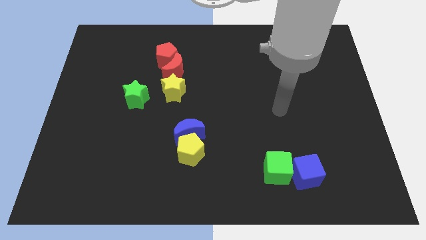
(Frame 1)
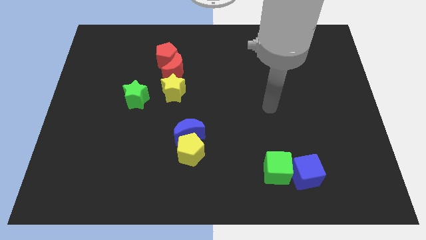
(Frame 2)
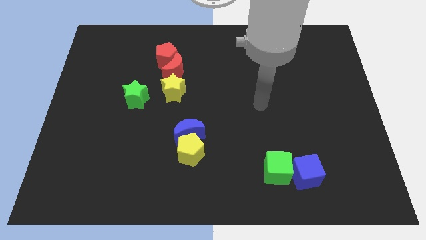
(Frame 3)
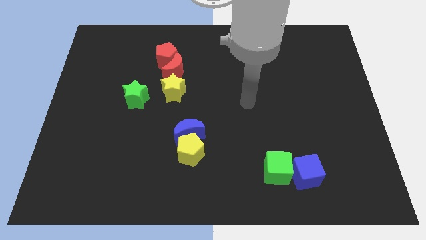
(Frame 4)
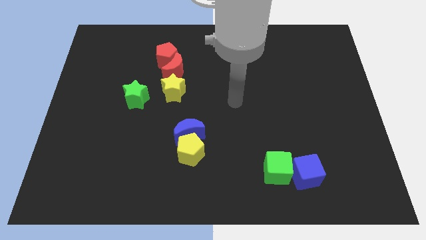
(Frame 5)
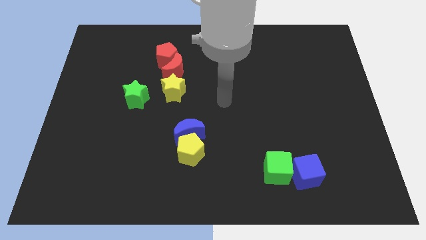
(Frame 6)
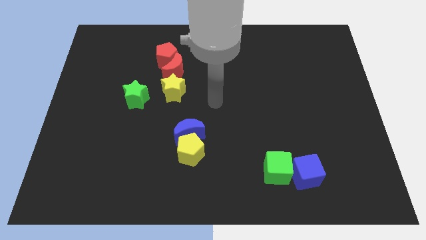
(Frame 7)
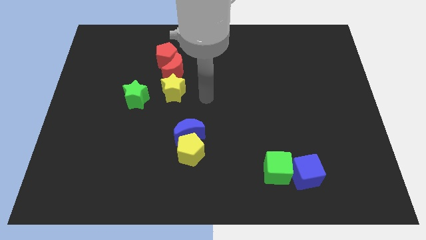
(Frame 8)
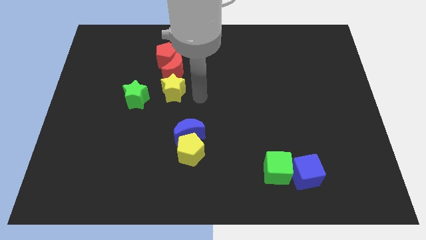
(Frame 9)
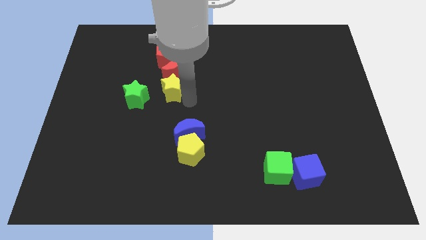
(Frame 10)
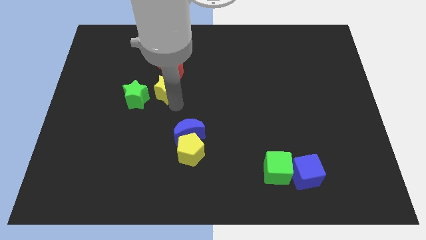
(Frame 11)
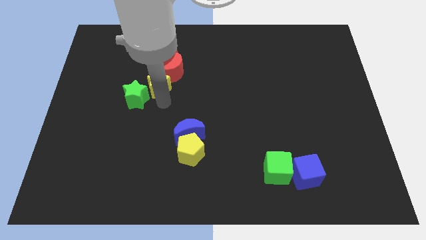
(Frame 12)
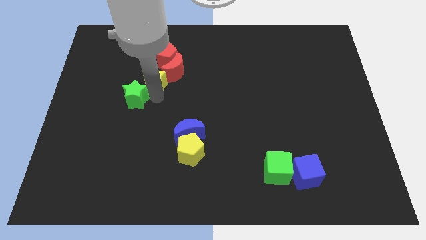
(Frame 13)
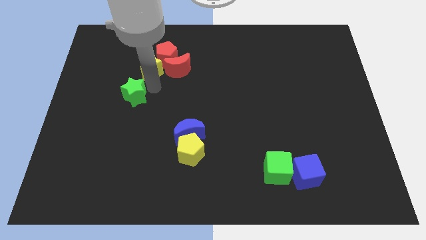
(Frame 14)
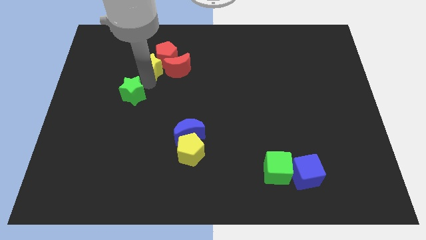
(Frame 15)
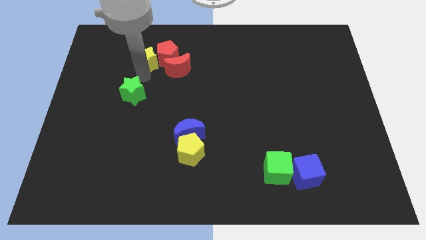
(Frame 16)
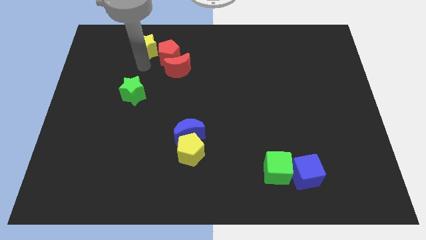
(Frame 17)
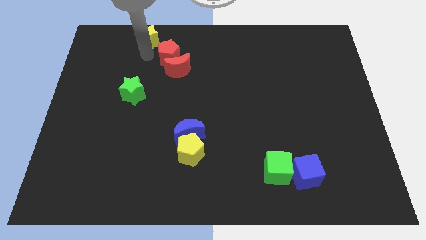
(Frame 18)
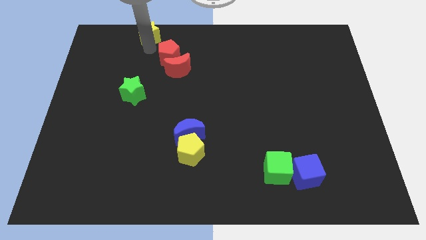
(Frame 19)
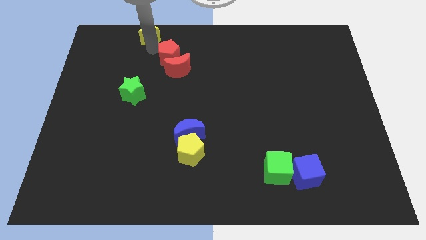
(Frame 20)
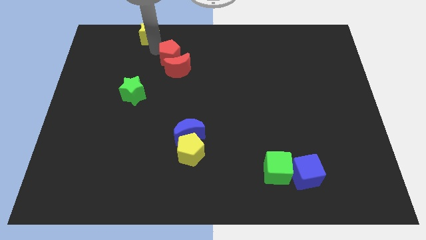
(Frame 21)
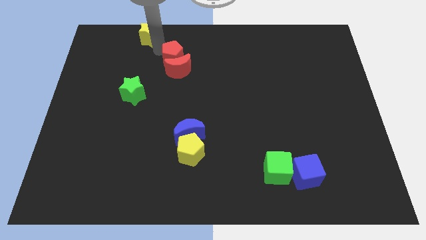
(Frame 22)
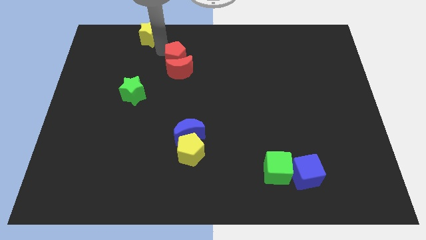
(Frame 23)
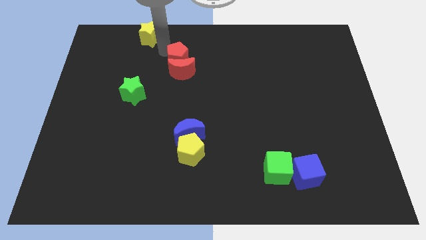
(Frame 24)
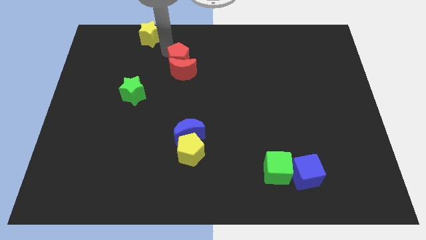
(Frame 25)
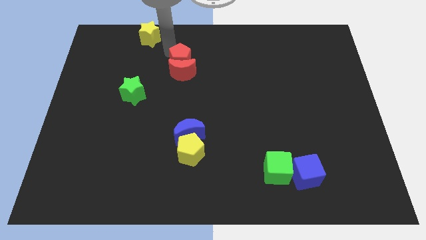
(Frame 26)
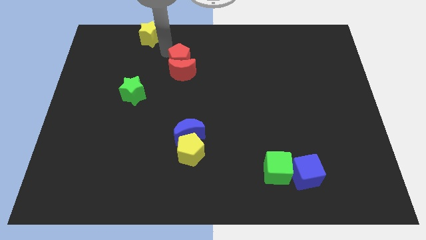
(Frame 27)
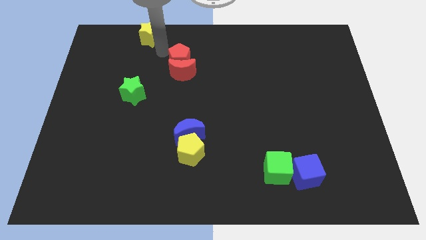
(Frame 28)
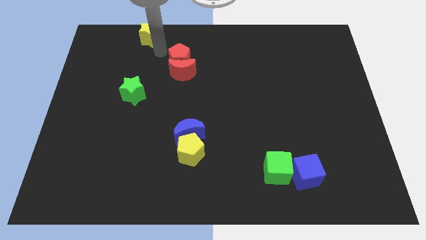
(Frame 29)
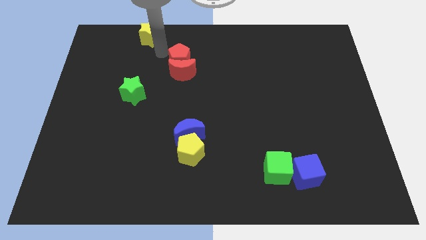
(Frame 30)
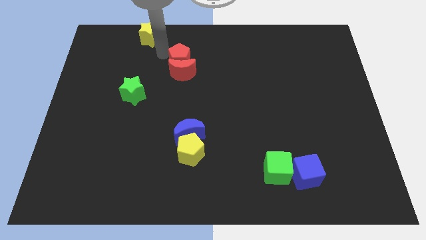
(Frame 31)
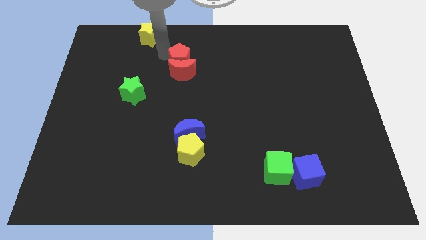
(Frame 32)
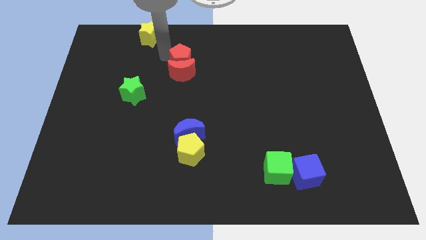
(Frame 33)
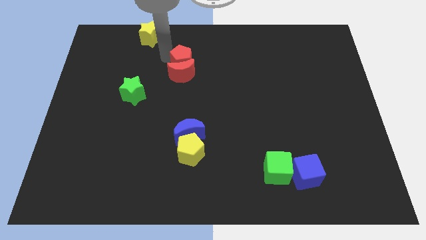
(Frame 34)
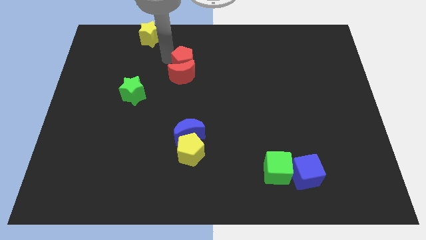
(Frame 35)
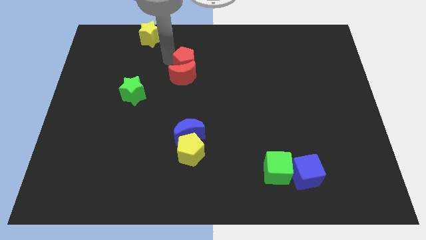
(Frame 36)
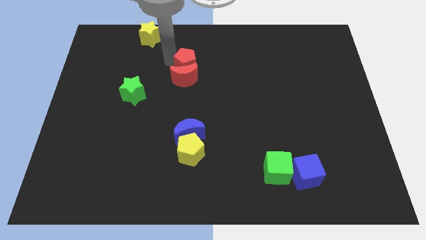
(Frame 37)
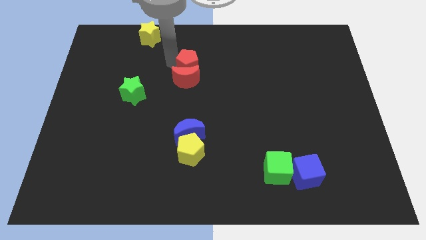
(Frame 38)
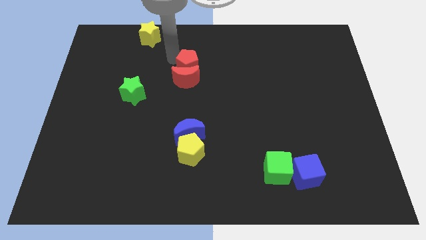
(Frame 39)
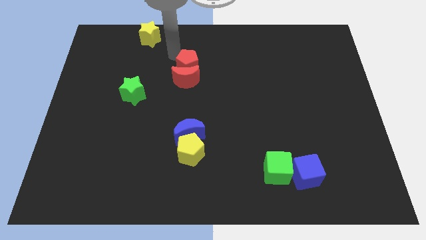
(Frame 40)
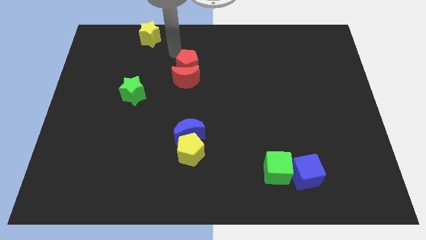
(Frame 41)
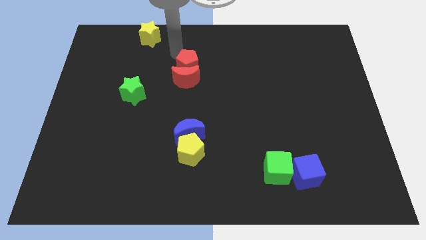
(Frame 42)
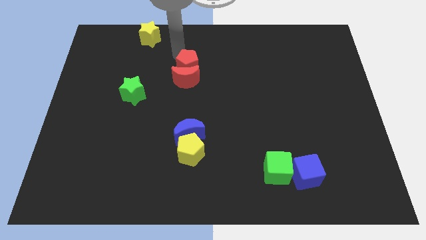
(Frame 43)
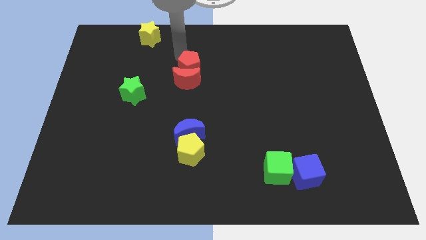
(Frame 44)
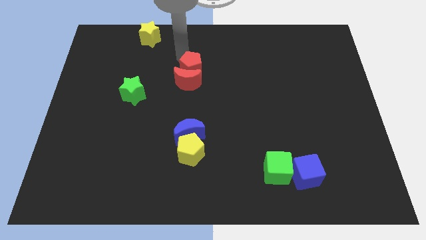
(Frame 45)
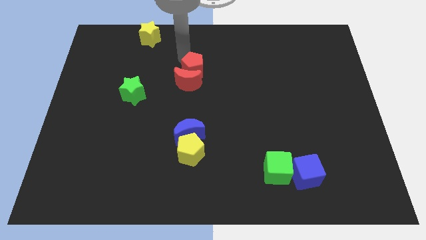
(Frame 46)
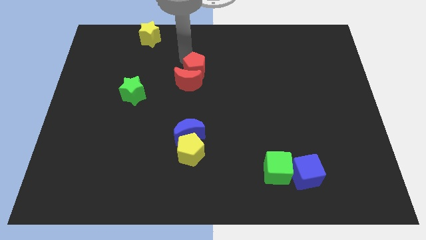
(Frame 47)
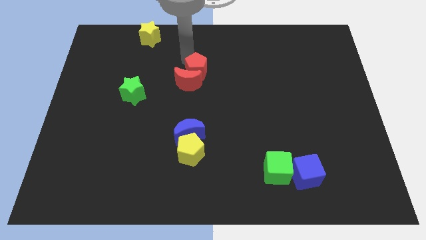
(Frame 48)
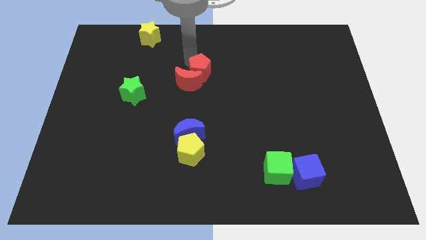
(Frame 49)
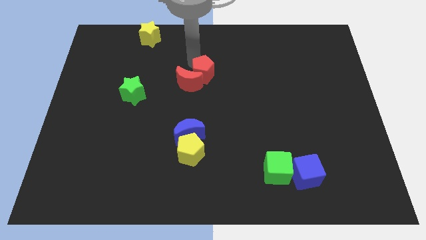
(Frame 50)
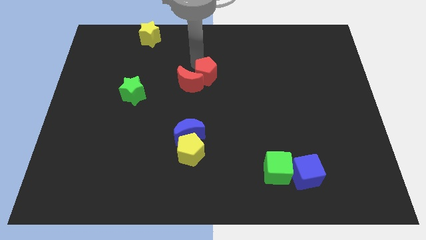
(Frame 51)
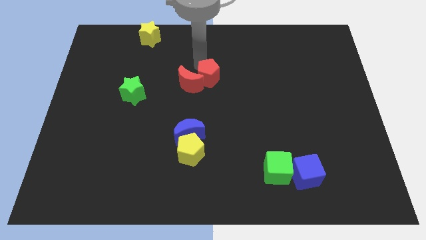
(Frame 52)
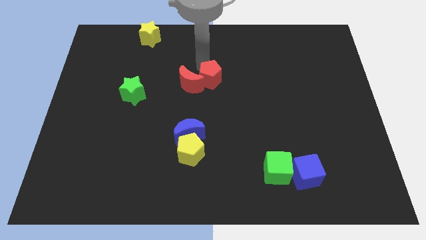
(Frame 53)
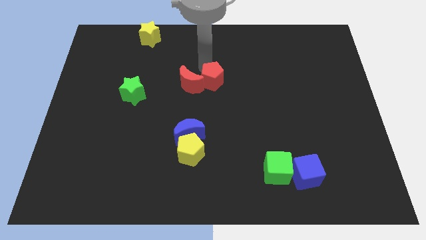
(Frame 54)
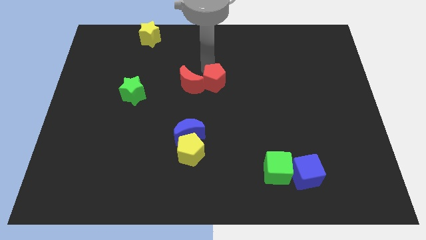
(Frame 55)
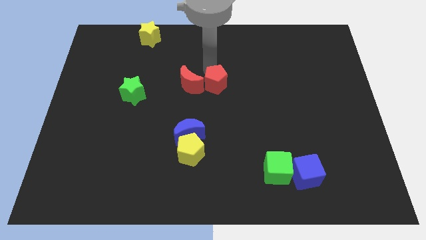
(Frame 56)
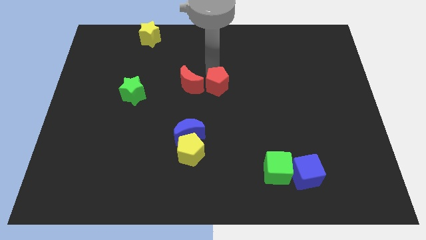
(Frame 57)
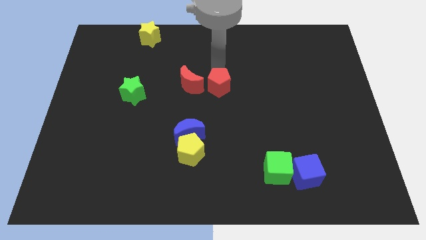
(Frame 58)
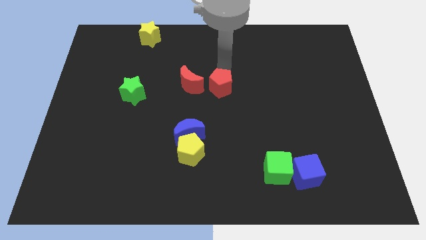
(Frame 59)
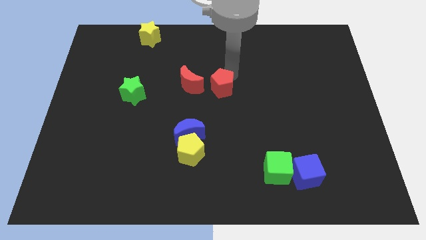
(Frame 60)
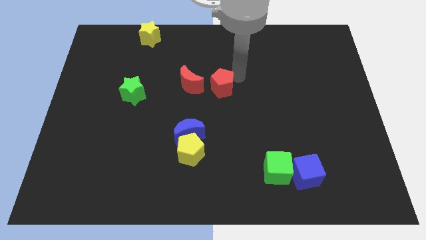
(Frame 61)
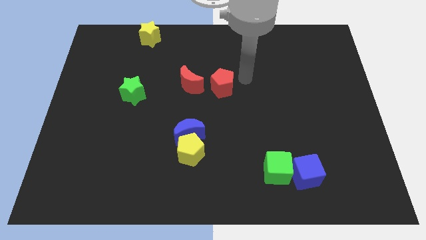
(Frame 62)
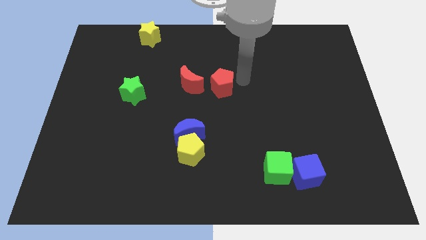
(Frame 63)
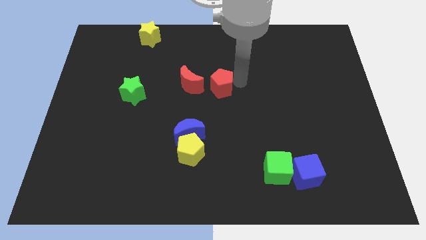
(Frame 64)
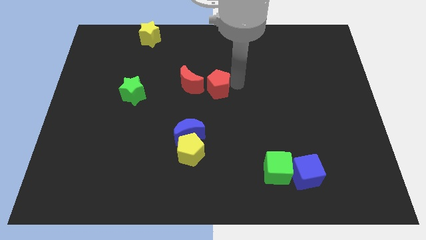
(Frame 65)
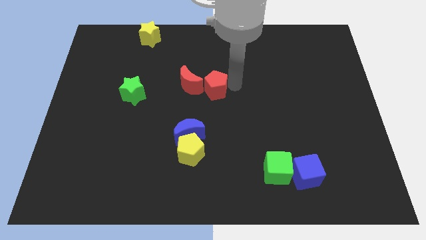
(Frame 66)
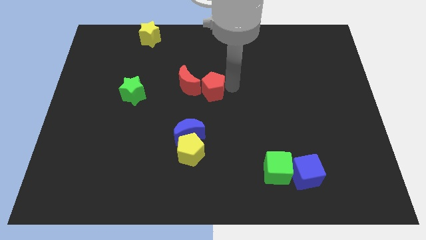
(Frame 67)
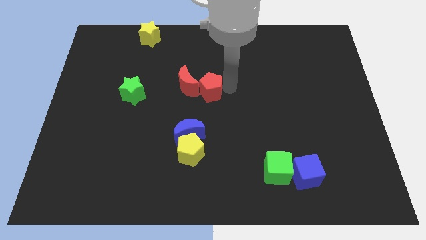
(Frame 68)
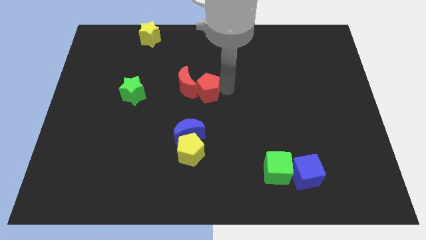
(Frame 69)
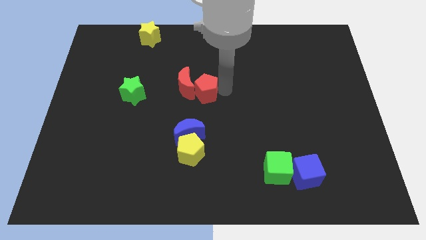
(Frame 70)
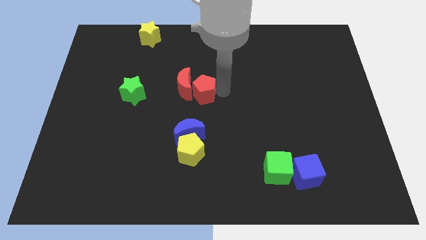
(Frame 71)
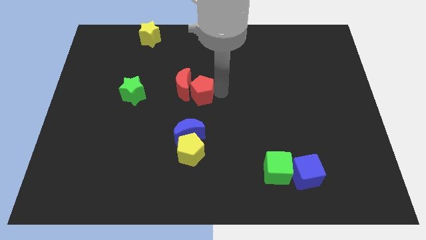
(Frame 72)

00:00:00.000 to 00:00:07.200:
slide the red pentagon a bit downwards

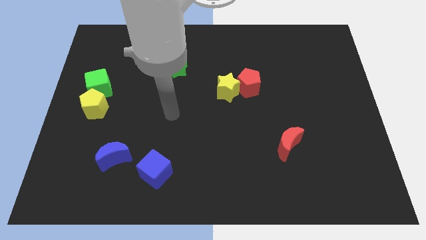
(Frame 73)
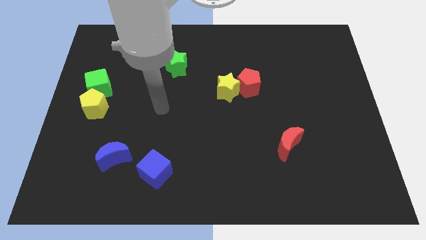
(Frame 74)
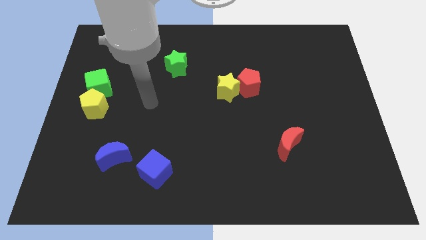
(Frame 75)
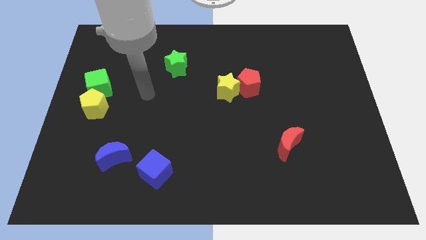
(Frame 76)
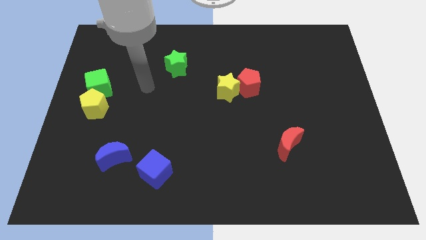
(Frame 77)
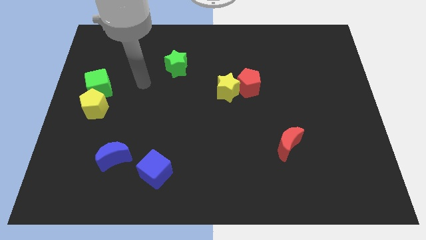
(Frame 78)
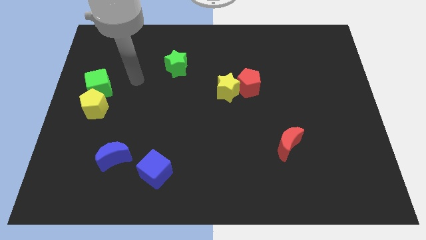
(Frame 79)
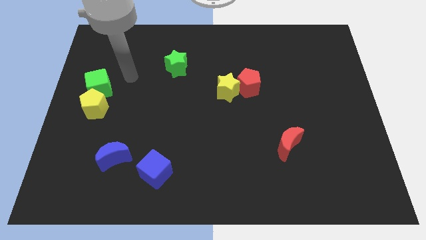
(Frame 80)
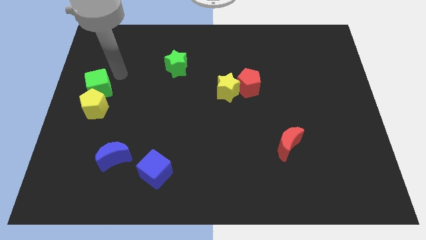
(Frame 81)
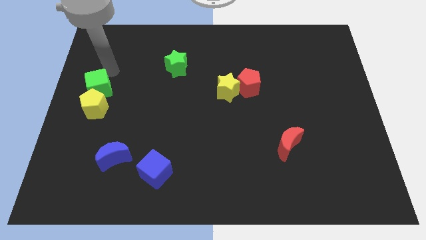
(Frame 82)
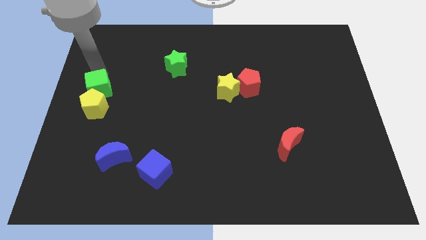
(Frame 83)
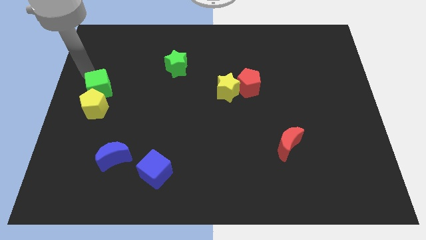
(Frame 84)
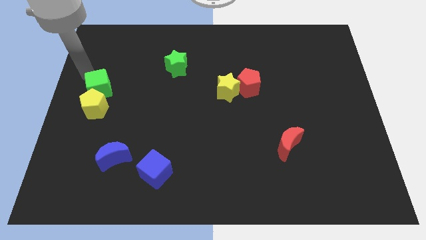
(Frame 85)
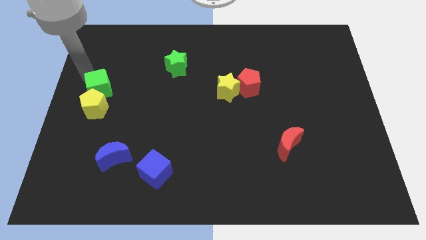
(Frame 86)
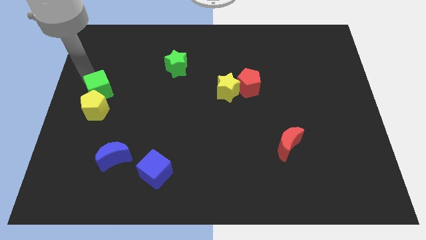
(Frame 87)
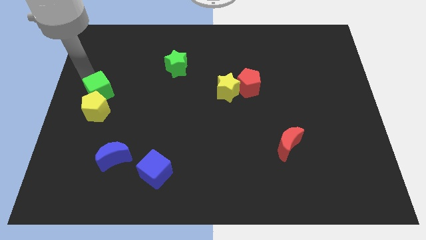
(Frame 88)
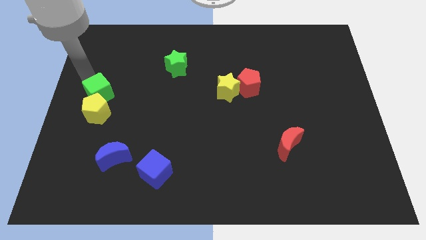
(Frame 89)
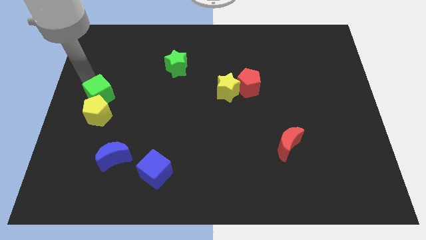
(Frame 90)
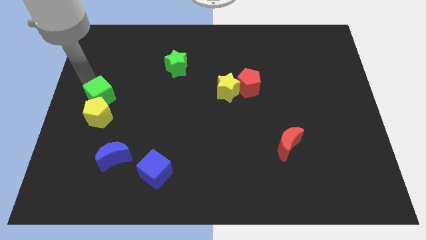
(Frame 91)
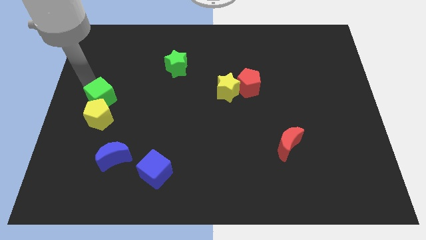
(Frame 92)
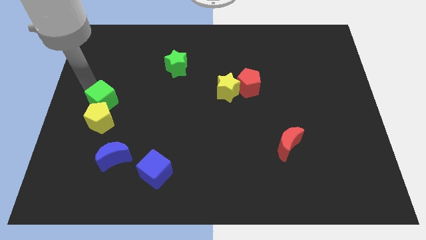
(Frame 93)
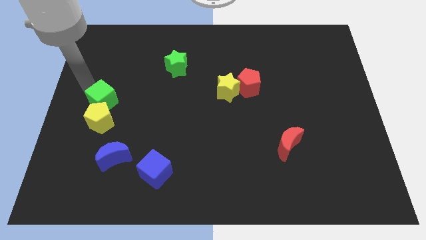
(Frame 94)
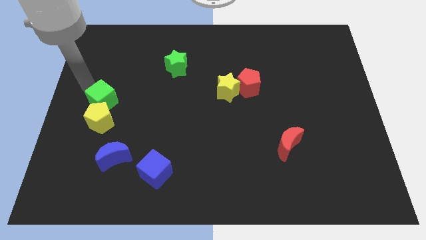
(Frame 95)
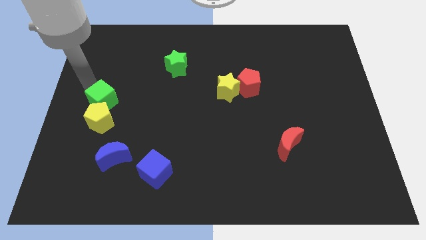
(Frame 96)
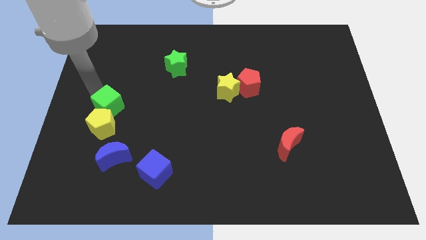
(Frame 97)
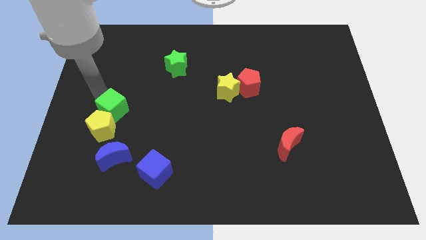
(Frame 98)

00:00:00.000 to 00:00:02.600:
slide the green cube slightly diagonally downwards and to the right
